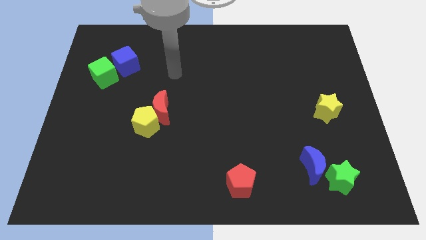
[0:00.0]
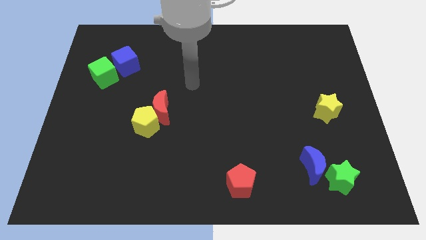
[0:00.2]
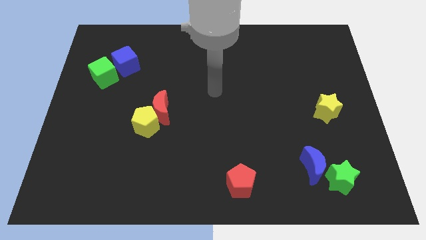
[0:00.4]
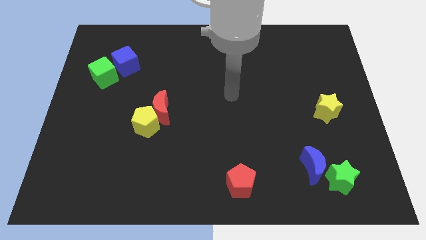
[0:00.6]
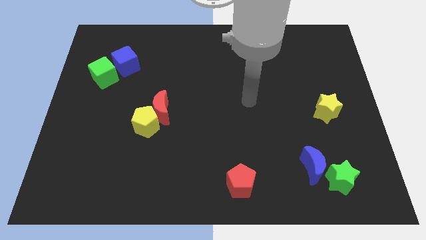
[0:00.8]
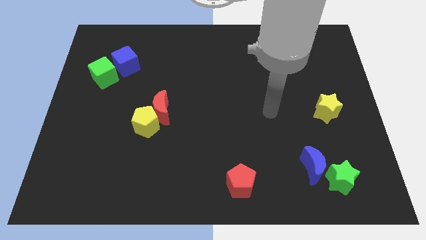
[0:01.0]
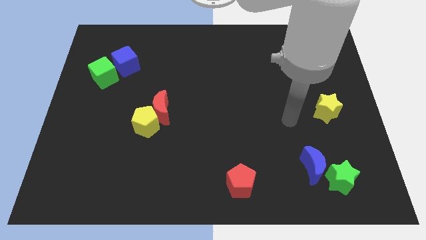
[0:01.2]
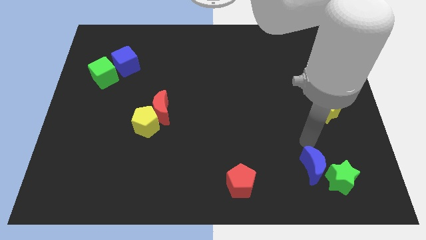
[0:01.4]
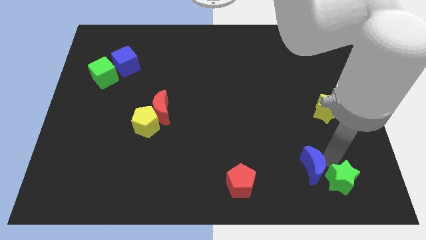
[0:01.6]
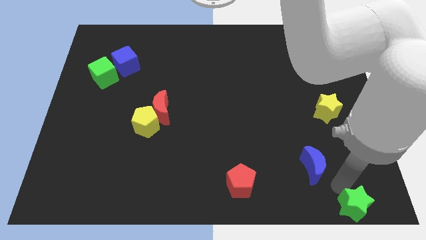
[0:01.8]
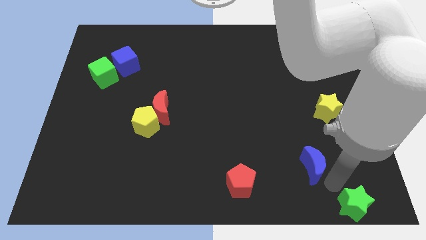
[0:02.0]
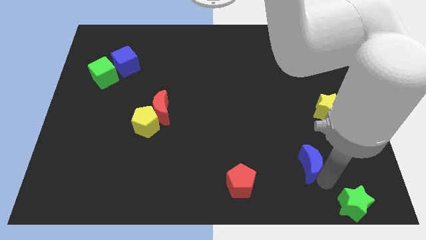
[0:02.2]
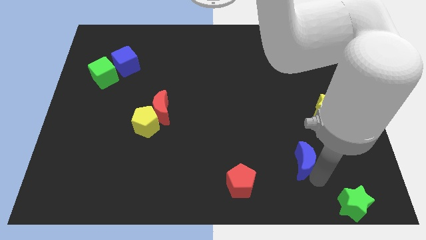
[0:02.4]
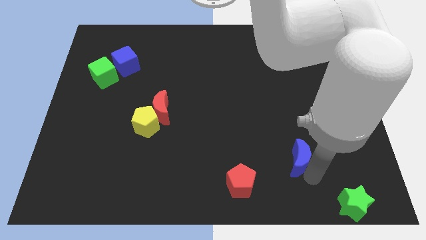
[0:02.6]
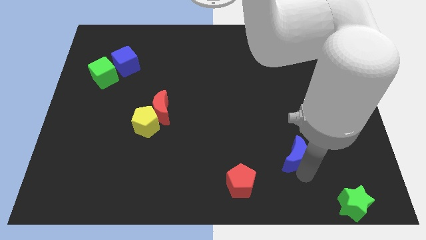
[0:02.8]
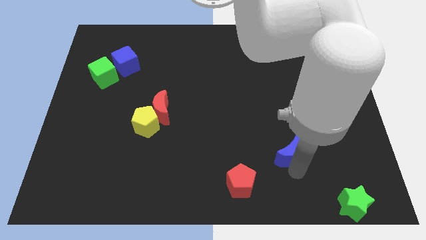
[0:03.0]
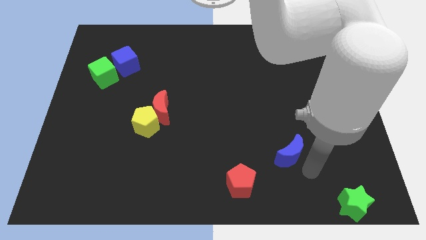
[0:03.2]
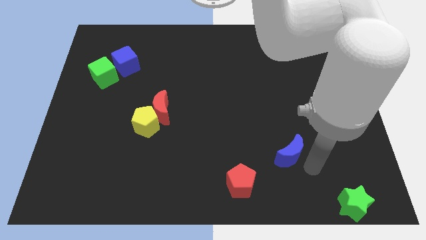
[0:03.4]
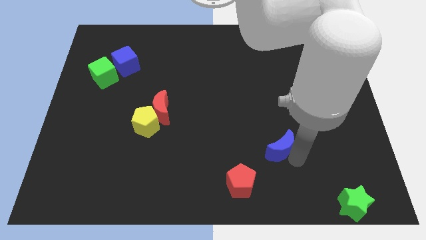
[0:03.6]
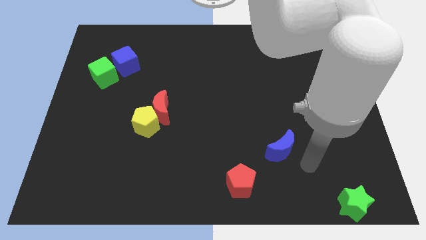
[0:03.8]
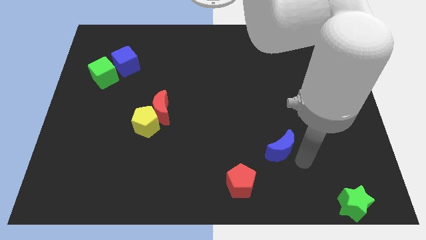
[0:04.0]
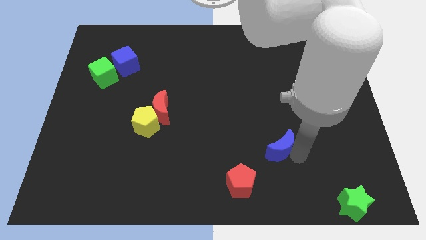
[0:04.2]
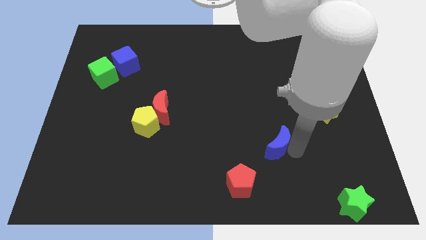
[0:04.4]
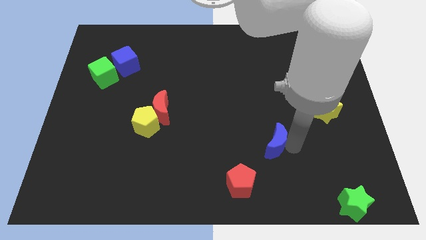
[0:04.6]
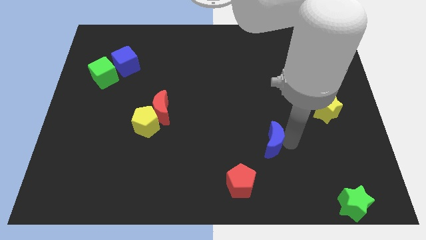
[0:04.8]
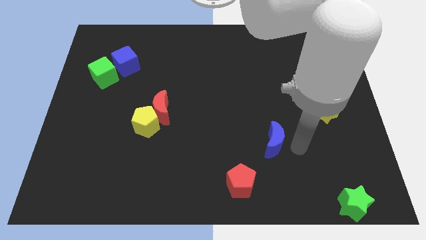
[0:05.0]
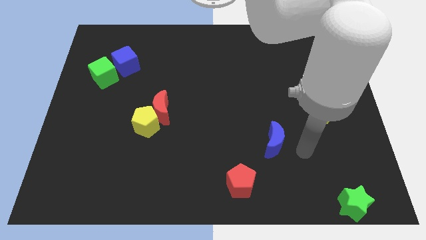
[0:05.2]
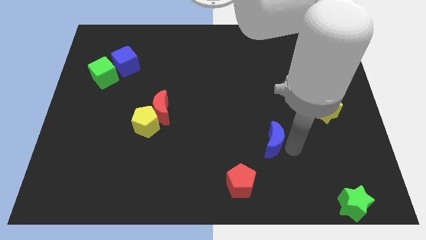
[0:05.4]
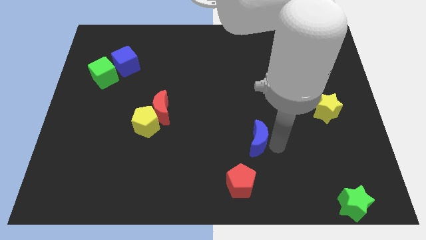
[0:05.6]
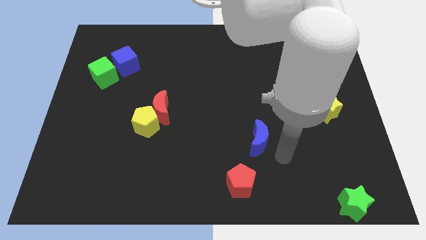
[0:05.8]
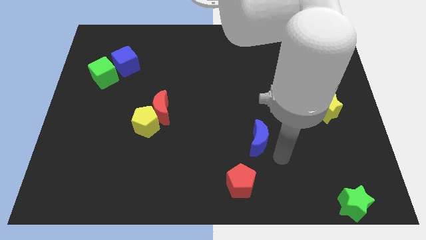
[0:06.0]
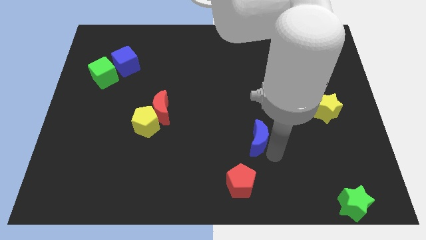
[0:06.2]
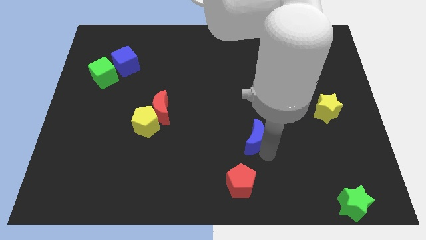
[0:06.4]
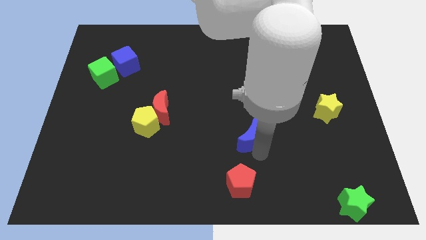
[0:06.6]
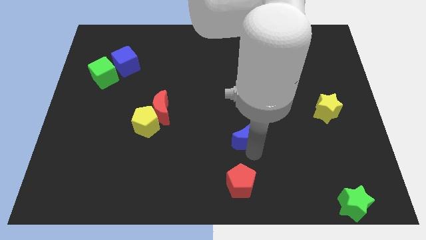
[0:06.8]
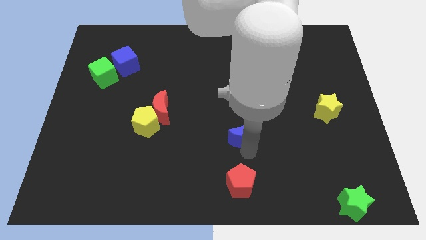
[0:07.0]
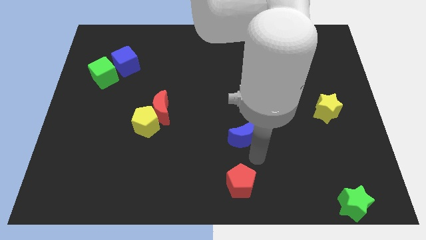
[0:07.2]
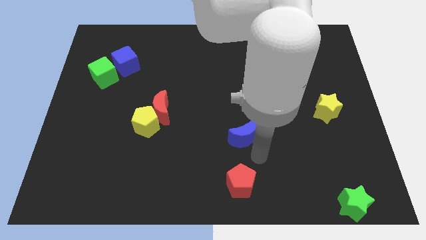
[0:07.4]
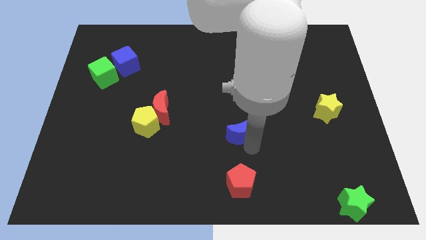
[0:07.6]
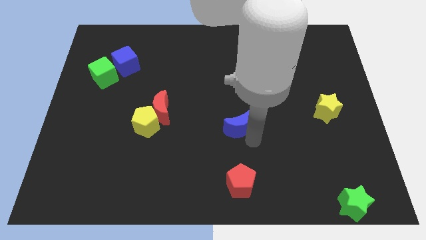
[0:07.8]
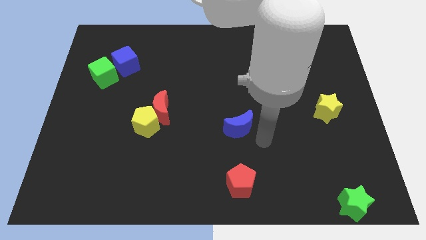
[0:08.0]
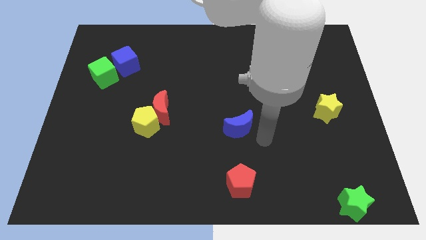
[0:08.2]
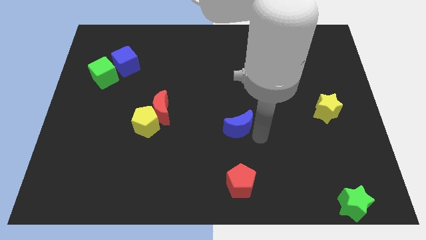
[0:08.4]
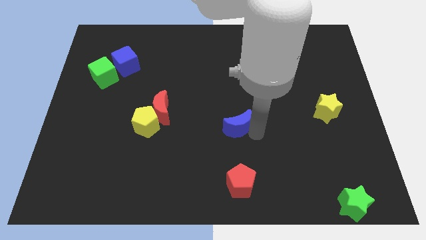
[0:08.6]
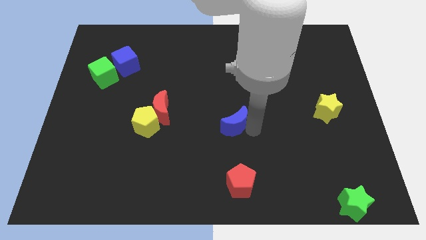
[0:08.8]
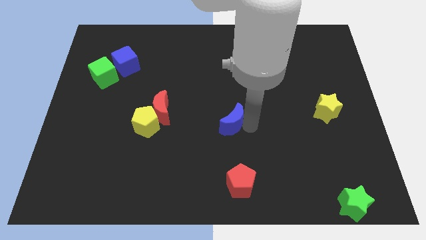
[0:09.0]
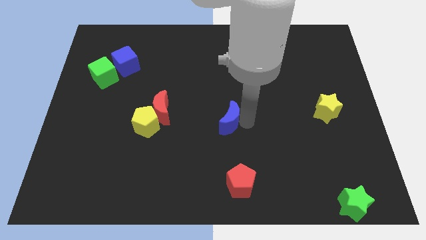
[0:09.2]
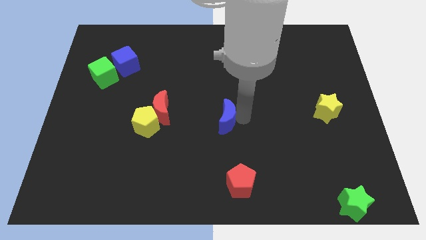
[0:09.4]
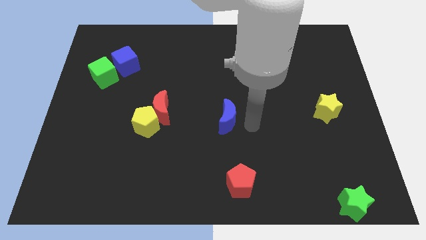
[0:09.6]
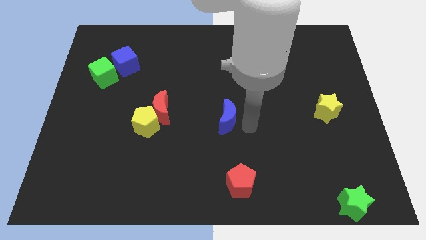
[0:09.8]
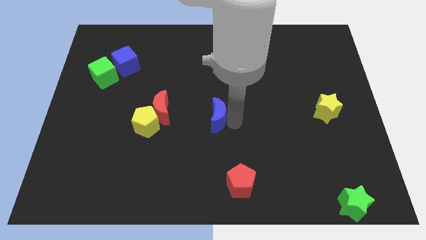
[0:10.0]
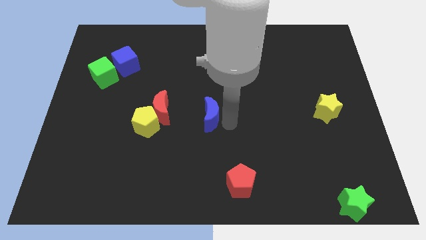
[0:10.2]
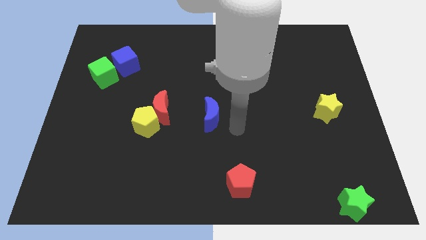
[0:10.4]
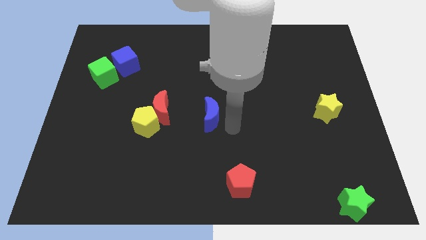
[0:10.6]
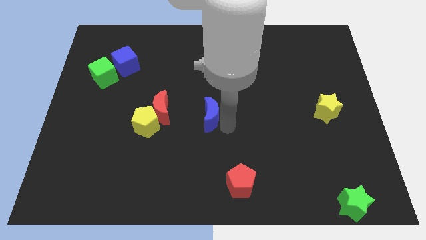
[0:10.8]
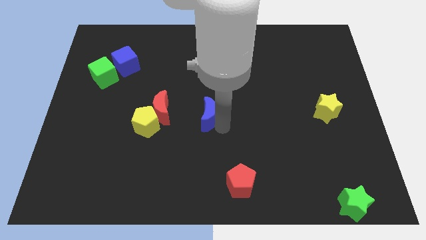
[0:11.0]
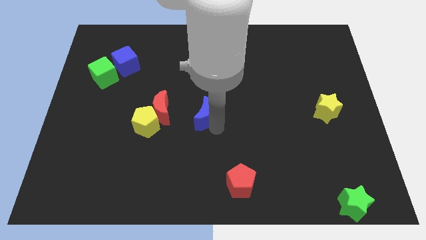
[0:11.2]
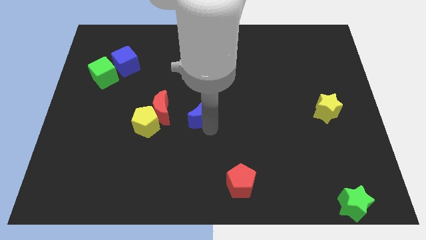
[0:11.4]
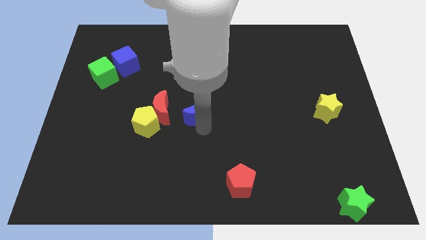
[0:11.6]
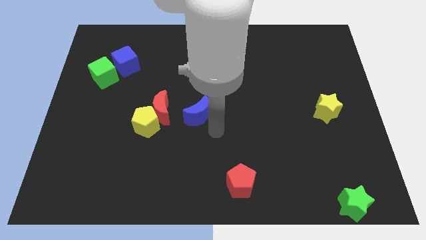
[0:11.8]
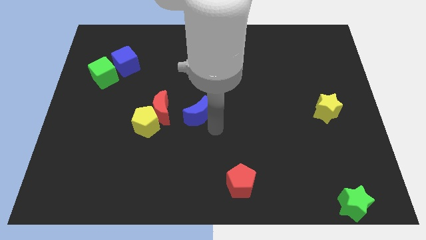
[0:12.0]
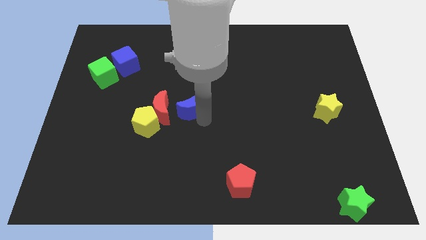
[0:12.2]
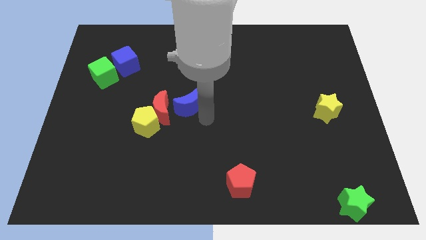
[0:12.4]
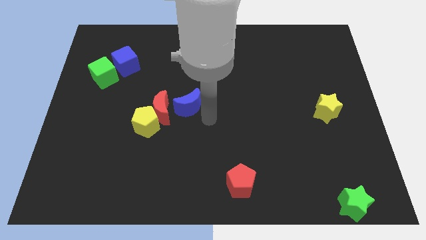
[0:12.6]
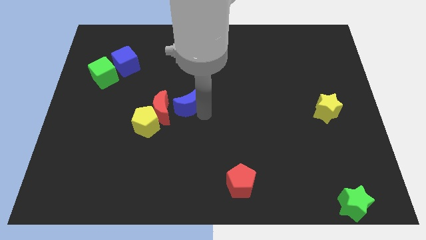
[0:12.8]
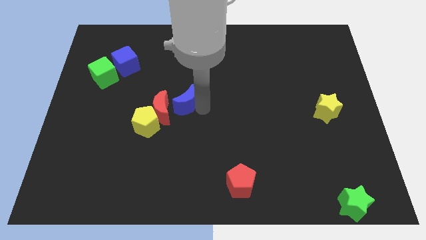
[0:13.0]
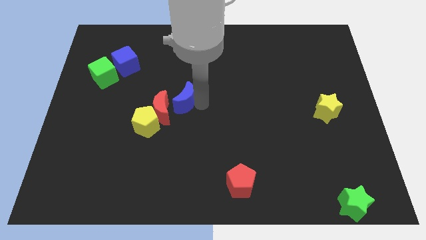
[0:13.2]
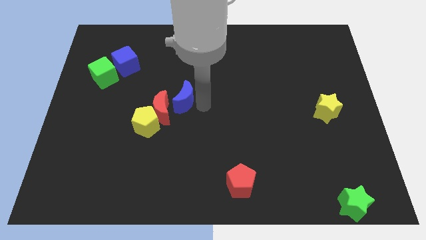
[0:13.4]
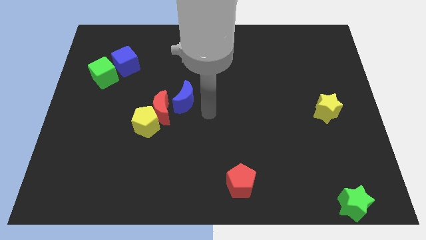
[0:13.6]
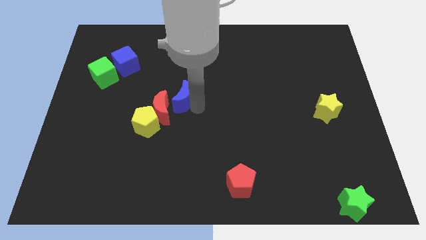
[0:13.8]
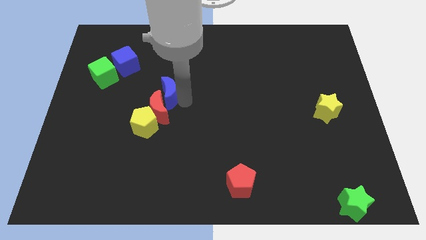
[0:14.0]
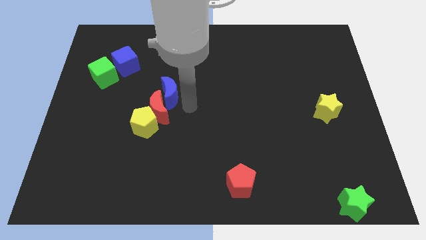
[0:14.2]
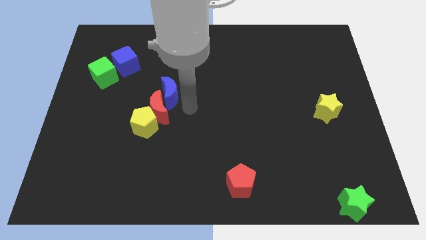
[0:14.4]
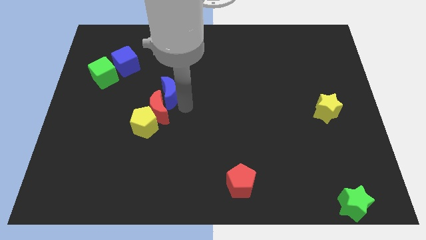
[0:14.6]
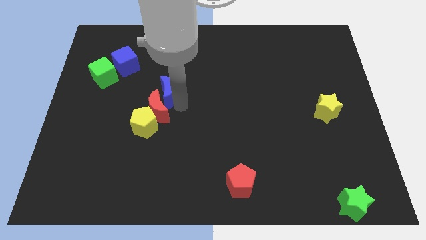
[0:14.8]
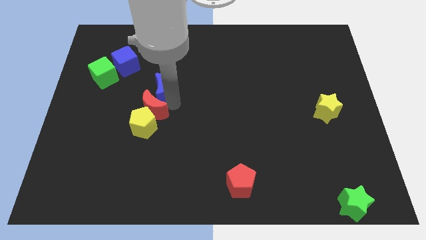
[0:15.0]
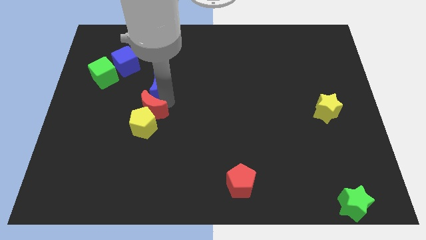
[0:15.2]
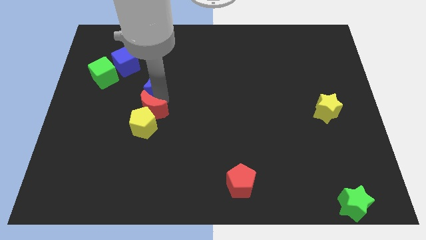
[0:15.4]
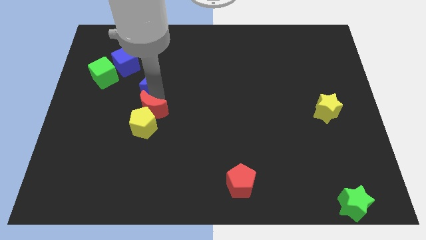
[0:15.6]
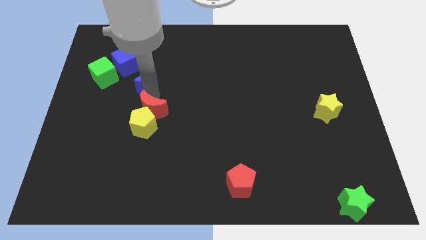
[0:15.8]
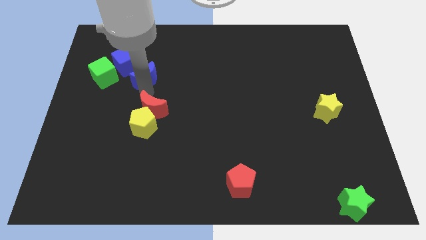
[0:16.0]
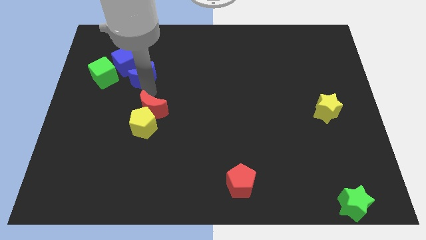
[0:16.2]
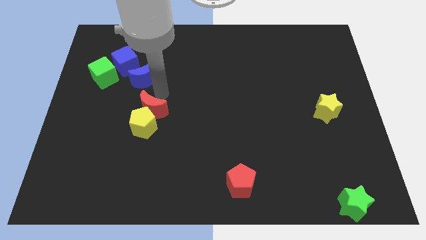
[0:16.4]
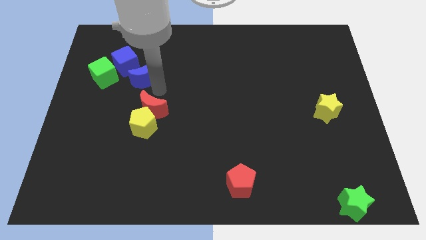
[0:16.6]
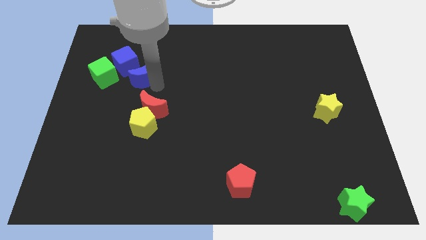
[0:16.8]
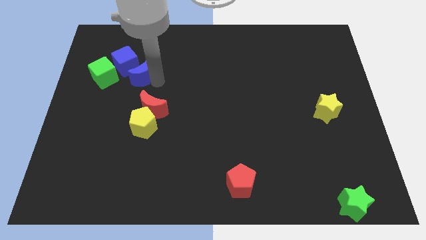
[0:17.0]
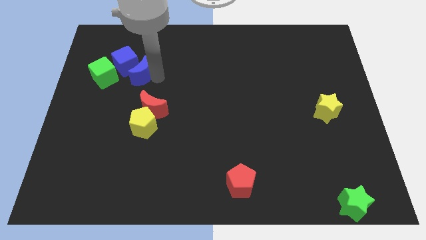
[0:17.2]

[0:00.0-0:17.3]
put the blue moon towards the blue cube
